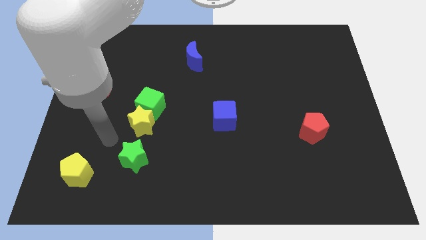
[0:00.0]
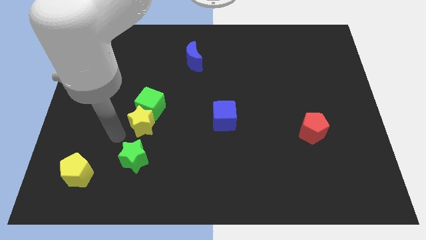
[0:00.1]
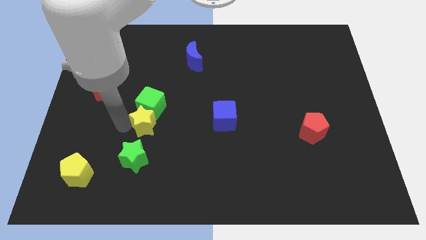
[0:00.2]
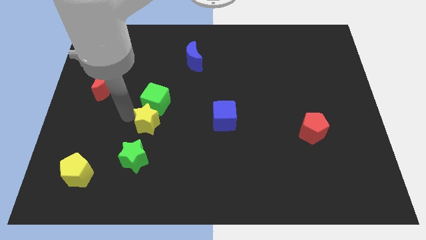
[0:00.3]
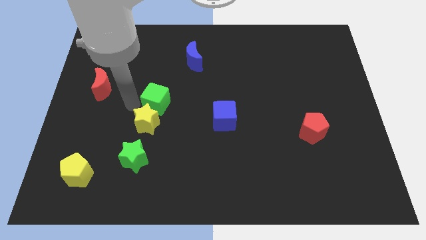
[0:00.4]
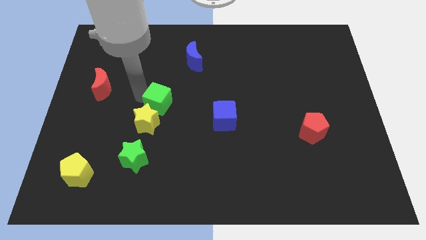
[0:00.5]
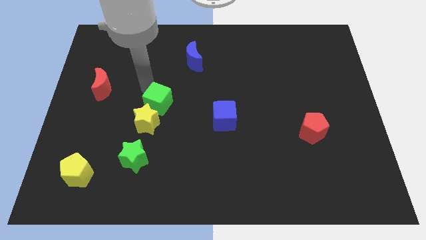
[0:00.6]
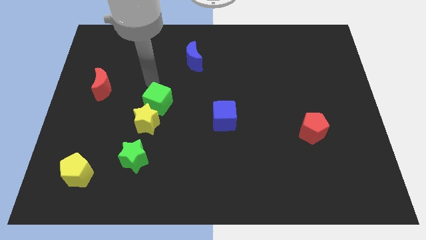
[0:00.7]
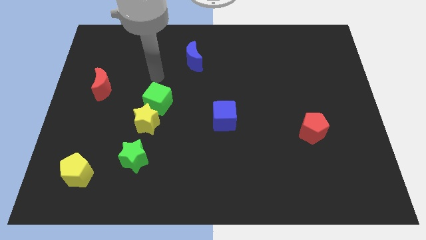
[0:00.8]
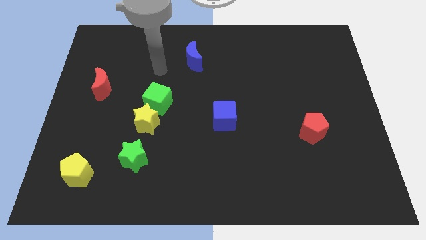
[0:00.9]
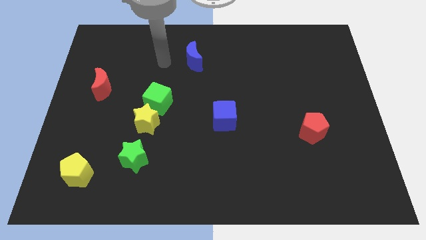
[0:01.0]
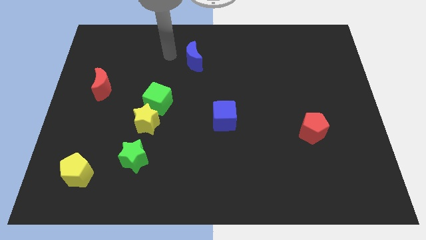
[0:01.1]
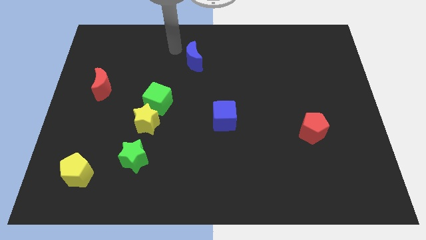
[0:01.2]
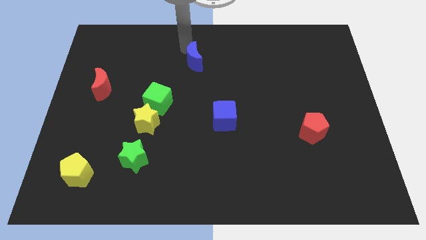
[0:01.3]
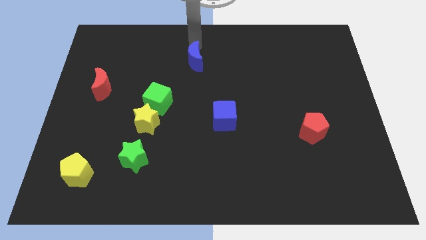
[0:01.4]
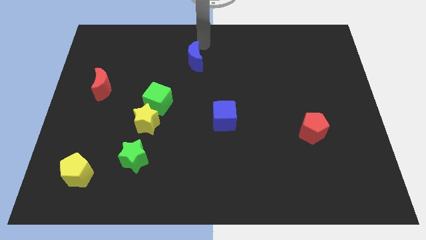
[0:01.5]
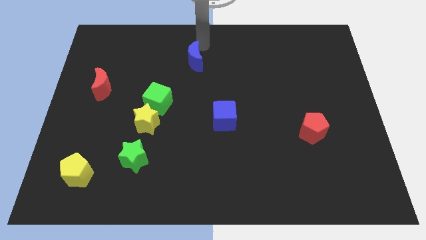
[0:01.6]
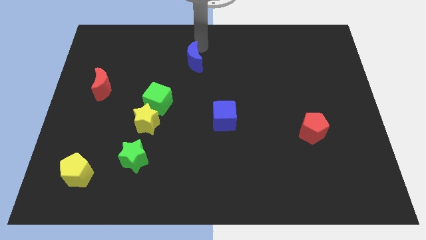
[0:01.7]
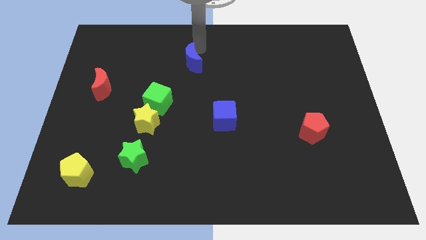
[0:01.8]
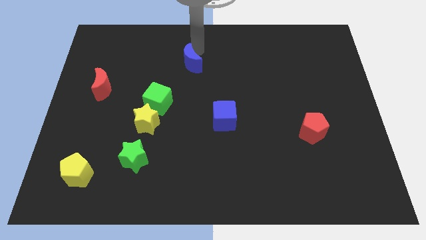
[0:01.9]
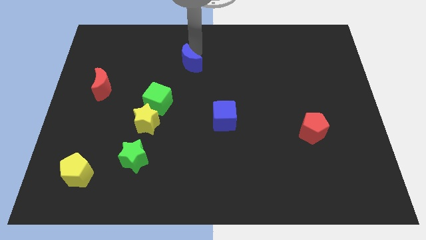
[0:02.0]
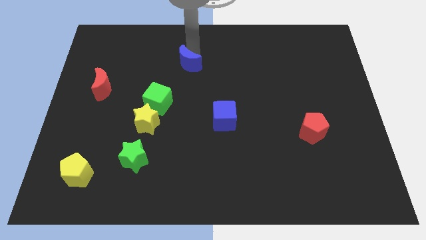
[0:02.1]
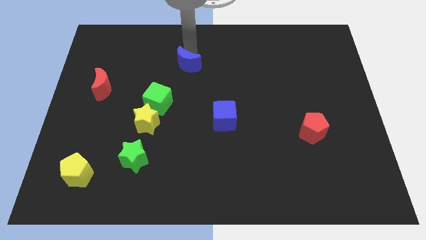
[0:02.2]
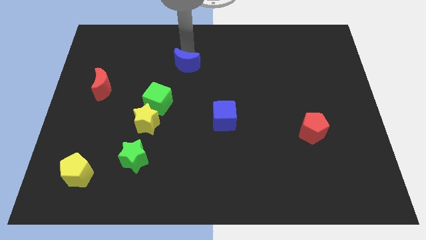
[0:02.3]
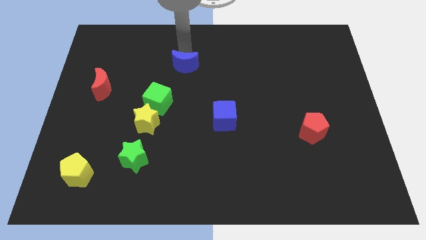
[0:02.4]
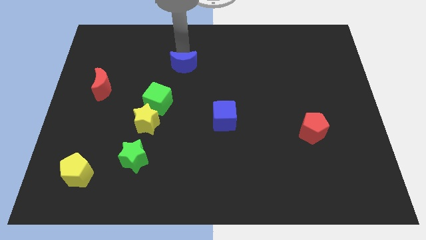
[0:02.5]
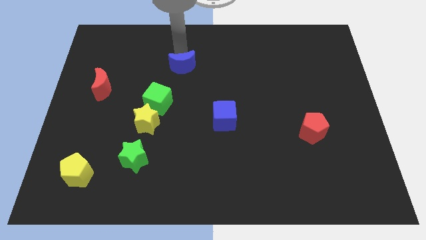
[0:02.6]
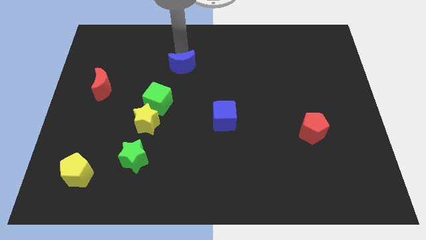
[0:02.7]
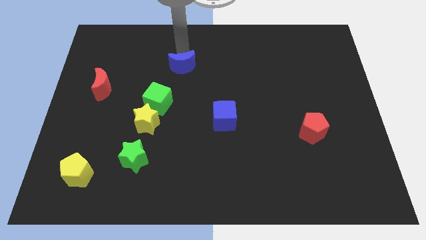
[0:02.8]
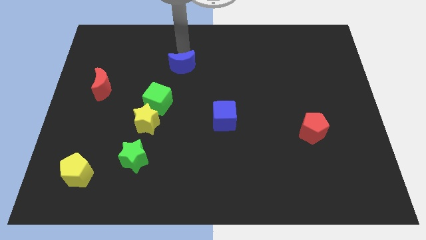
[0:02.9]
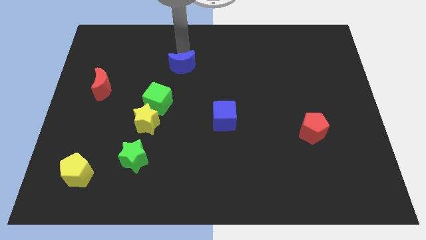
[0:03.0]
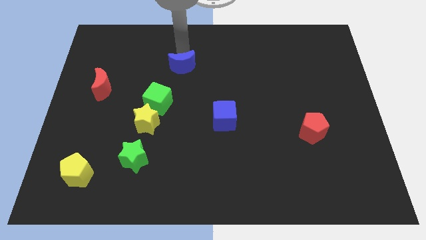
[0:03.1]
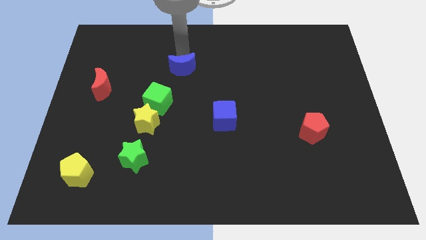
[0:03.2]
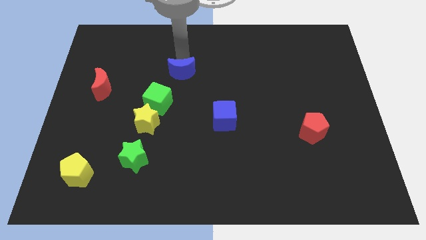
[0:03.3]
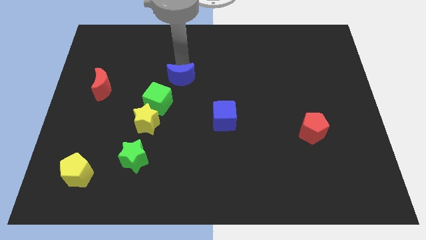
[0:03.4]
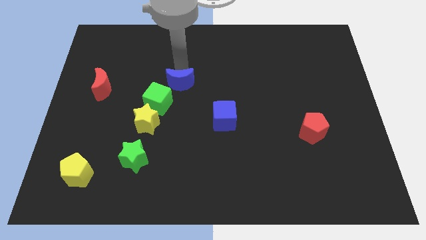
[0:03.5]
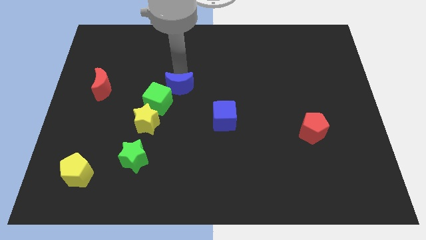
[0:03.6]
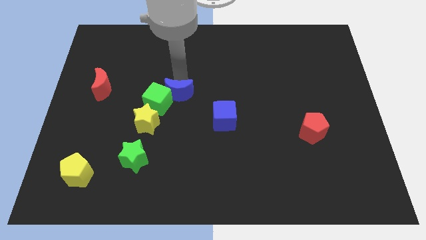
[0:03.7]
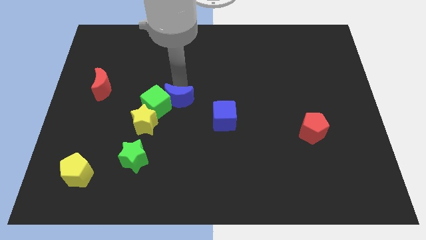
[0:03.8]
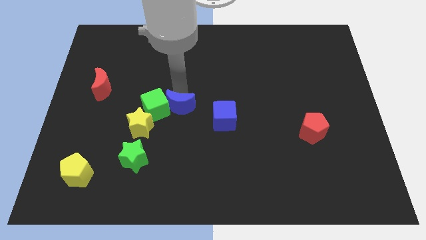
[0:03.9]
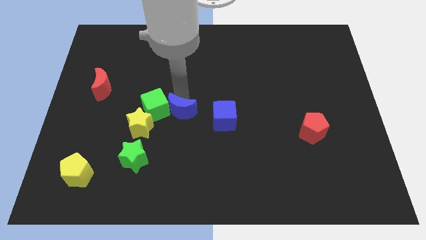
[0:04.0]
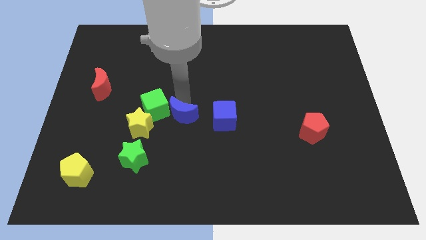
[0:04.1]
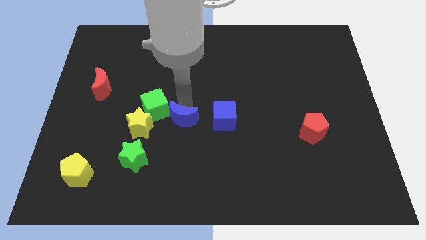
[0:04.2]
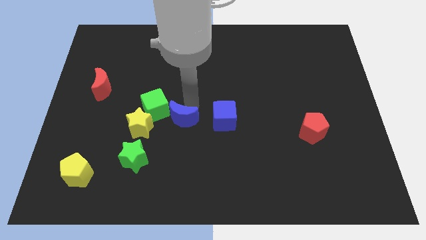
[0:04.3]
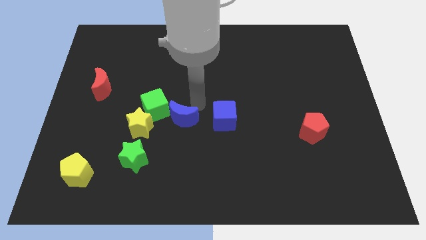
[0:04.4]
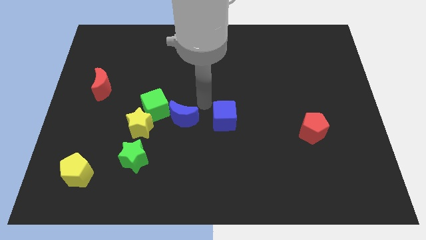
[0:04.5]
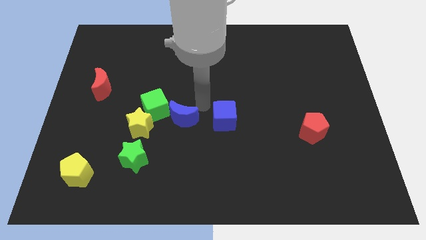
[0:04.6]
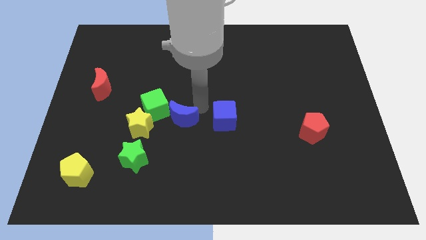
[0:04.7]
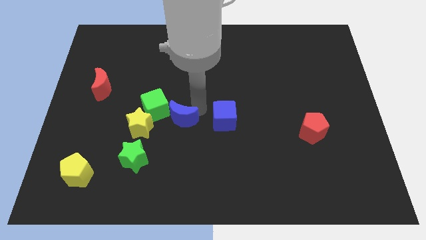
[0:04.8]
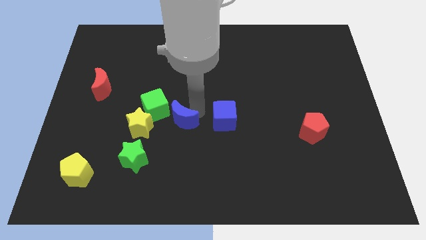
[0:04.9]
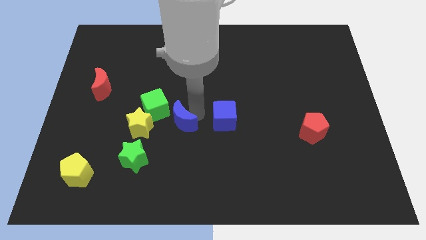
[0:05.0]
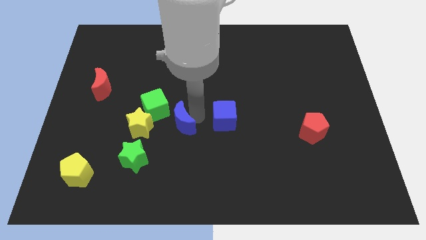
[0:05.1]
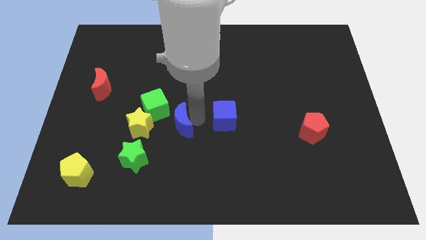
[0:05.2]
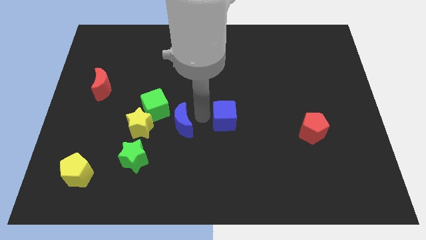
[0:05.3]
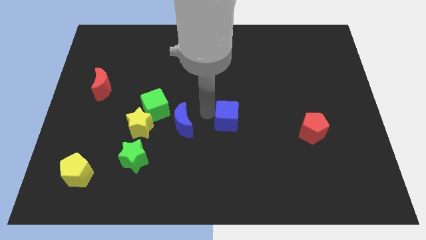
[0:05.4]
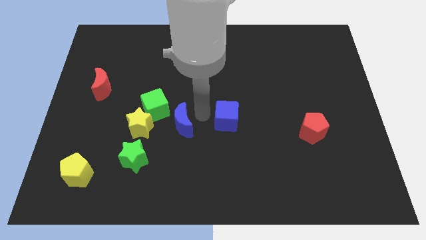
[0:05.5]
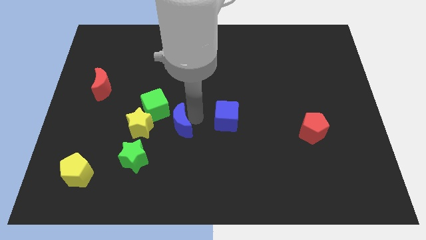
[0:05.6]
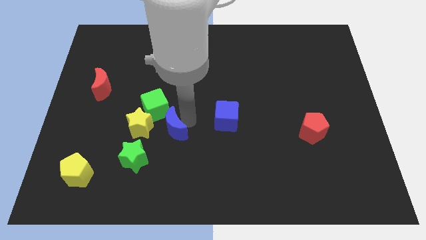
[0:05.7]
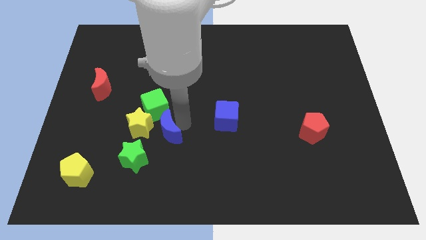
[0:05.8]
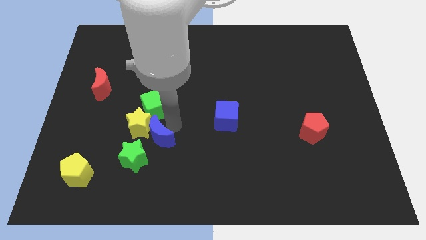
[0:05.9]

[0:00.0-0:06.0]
move the blue moon to the bottom of the yellow star
